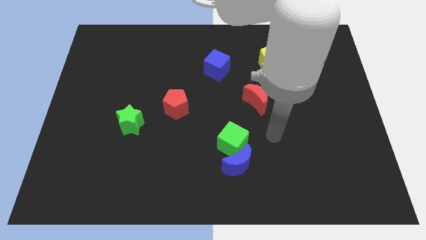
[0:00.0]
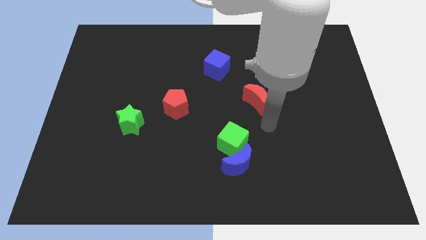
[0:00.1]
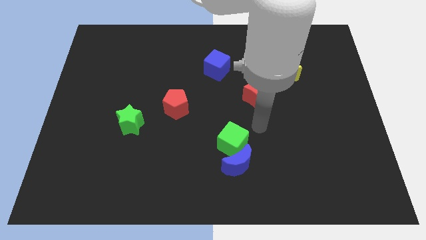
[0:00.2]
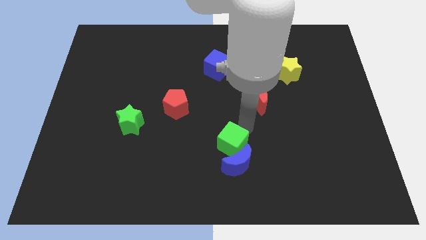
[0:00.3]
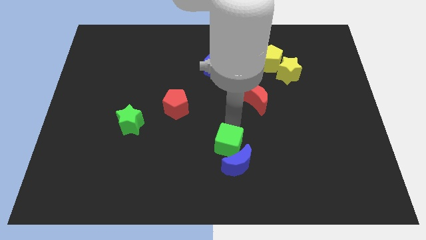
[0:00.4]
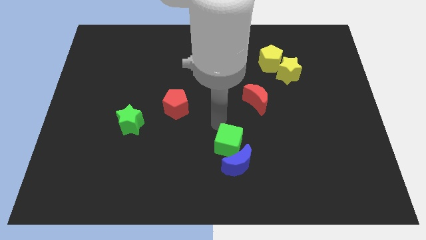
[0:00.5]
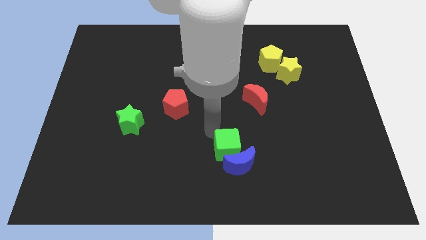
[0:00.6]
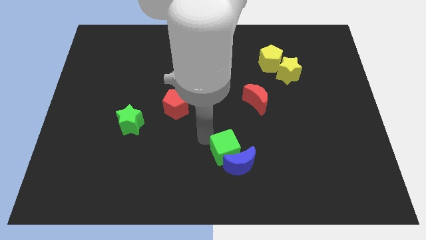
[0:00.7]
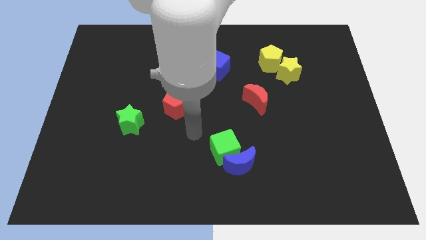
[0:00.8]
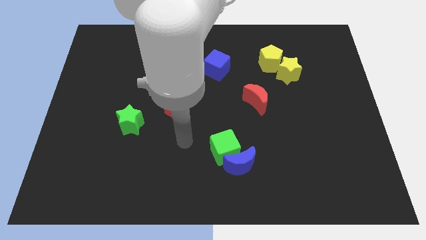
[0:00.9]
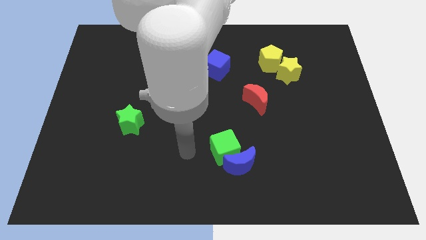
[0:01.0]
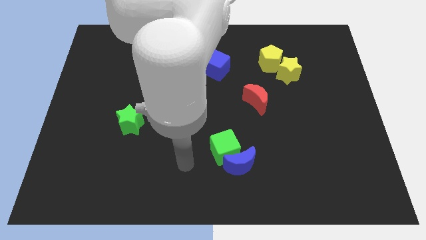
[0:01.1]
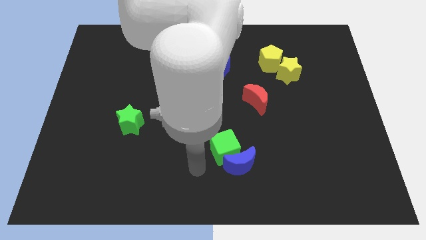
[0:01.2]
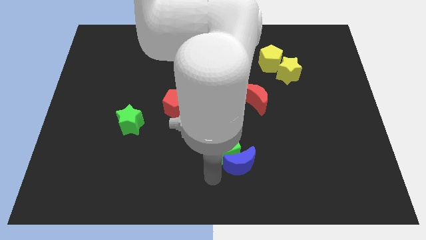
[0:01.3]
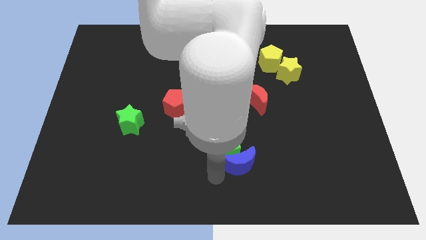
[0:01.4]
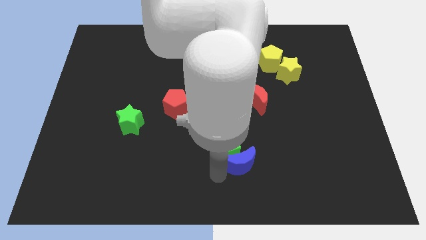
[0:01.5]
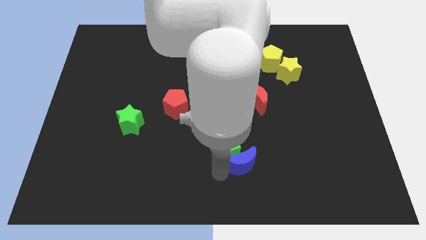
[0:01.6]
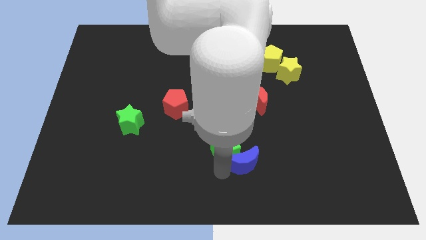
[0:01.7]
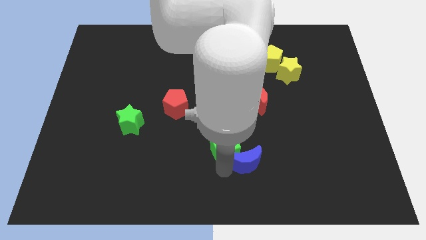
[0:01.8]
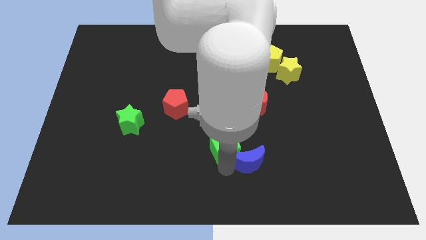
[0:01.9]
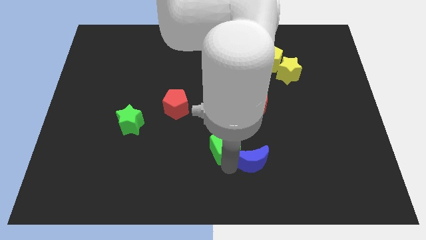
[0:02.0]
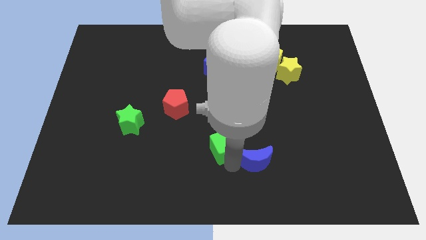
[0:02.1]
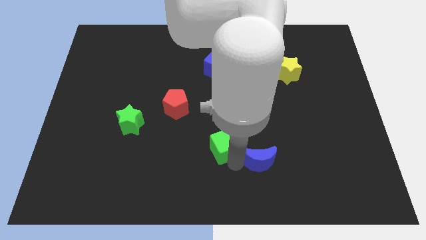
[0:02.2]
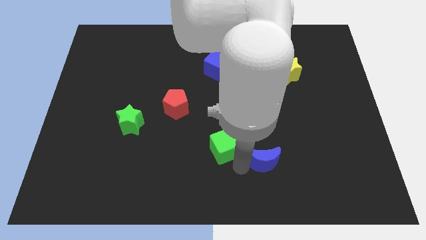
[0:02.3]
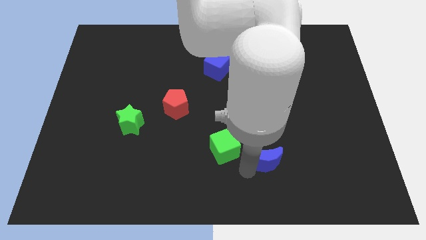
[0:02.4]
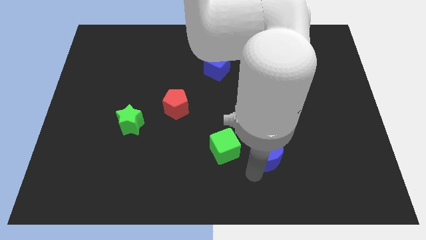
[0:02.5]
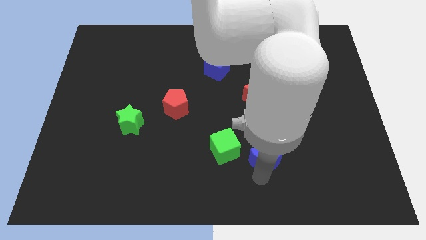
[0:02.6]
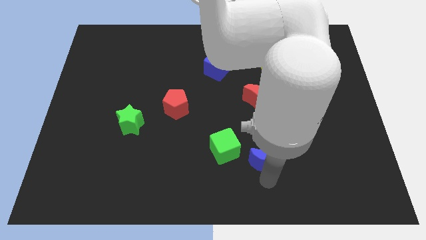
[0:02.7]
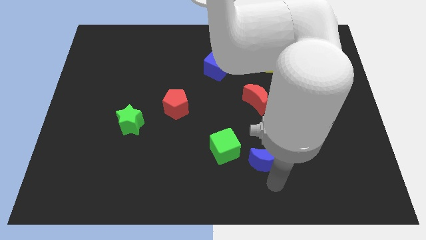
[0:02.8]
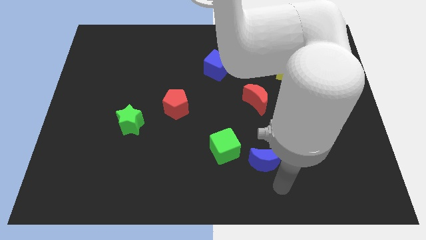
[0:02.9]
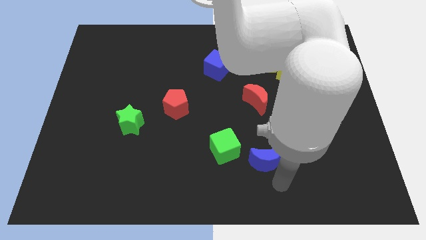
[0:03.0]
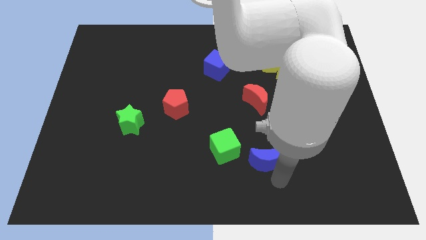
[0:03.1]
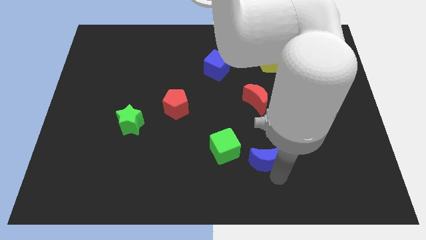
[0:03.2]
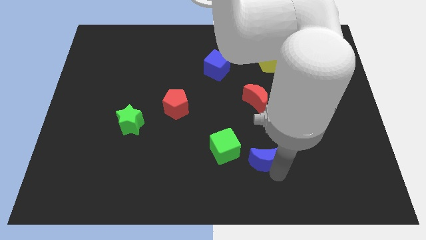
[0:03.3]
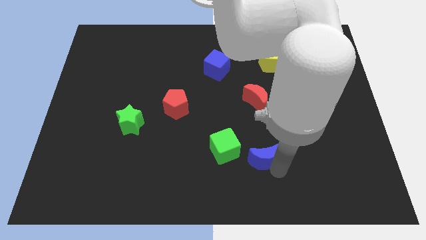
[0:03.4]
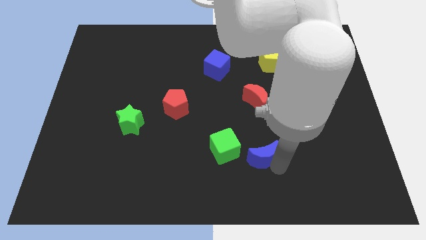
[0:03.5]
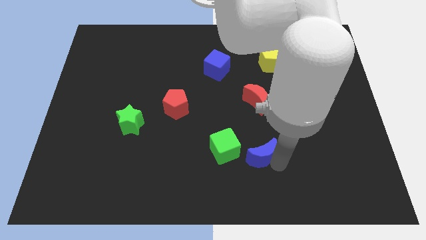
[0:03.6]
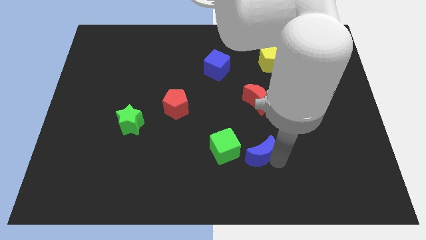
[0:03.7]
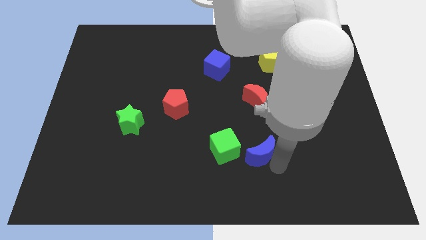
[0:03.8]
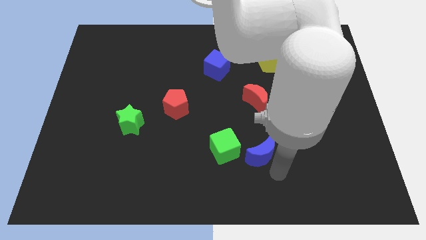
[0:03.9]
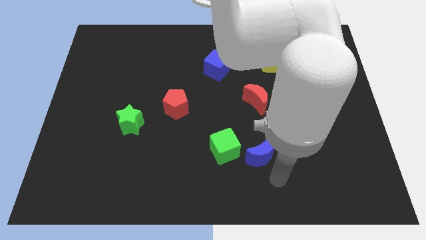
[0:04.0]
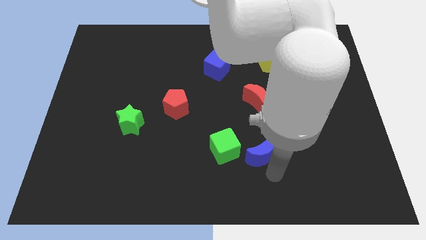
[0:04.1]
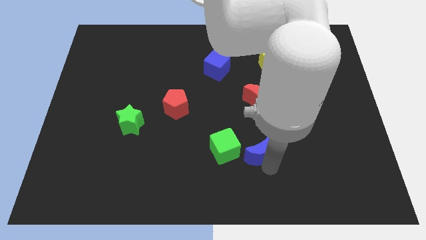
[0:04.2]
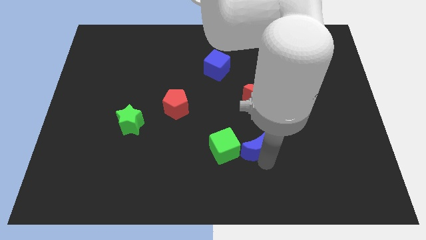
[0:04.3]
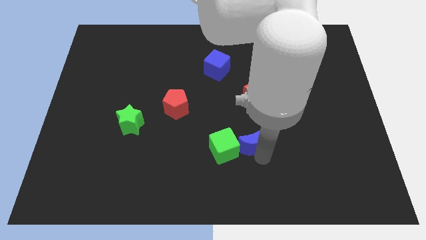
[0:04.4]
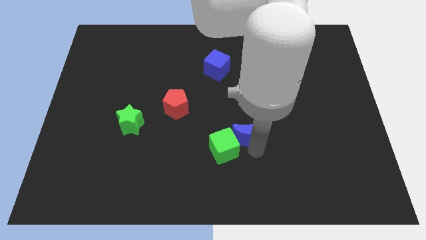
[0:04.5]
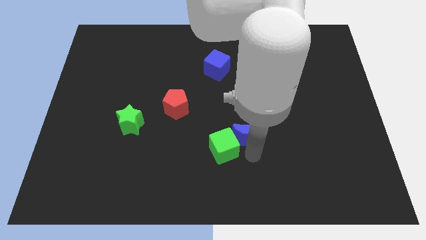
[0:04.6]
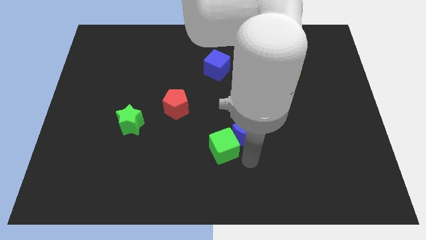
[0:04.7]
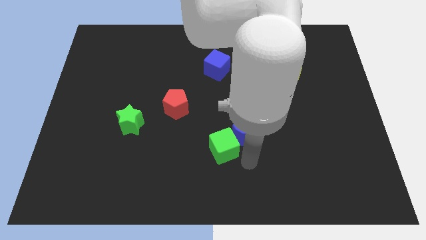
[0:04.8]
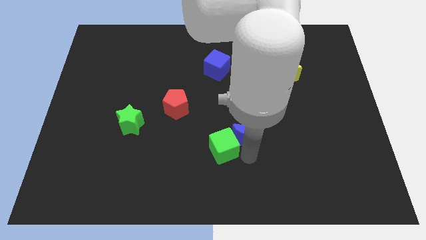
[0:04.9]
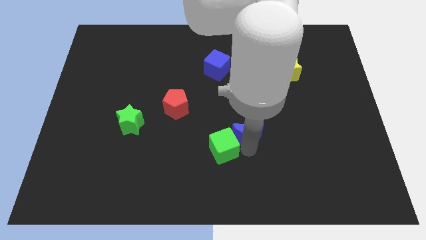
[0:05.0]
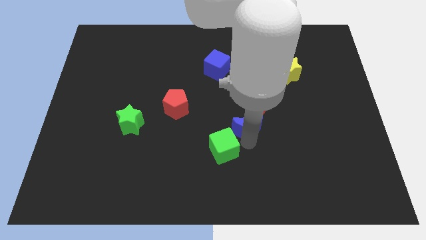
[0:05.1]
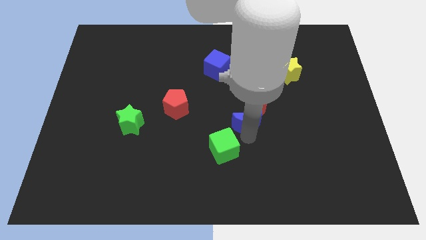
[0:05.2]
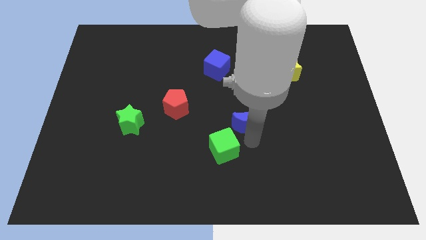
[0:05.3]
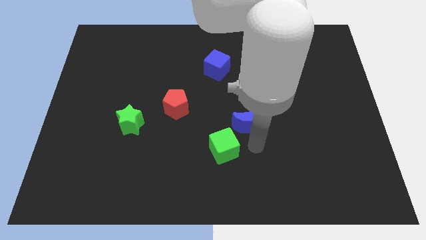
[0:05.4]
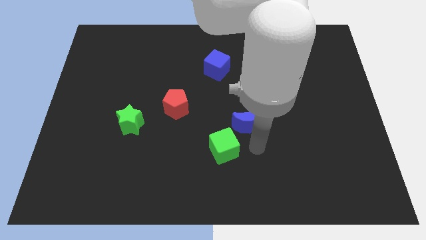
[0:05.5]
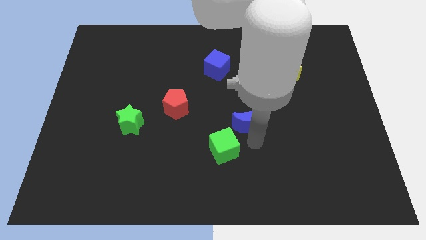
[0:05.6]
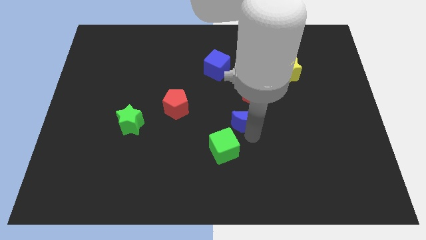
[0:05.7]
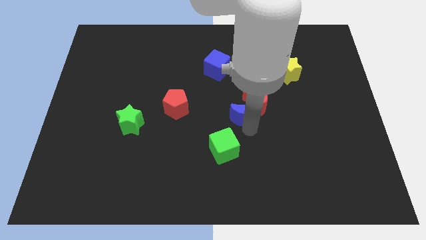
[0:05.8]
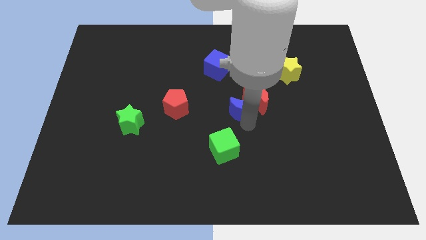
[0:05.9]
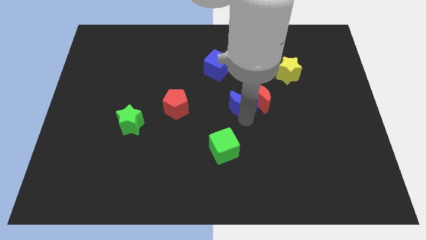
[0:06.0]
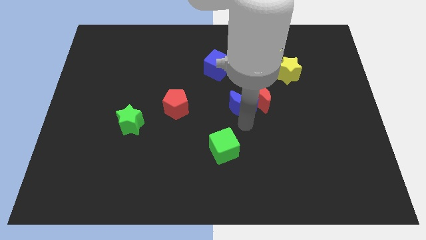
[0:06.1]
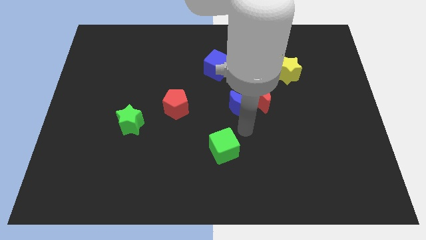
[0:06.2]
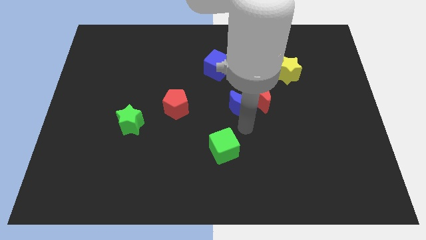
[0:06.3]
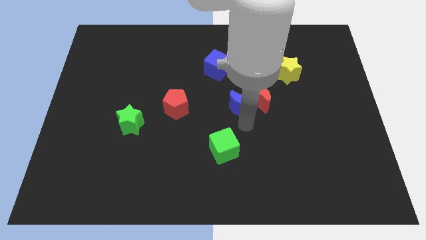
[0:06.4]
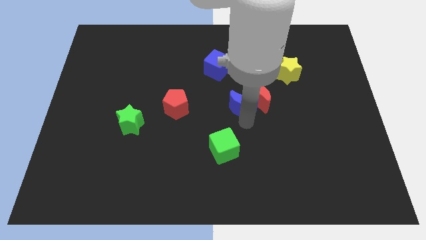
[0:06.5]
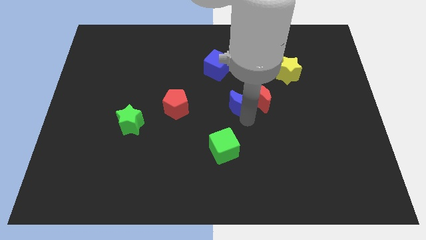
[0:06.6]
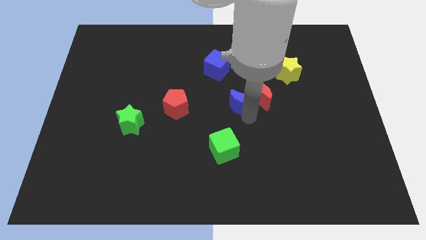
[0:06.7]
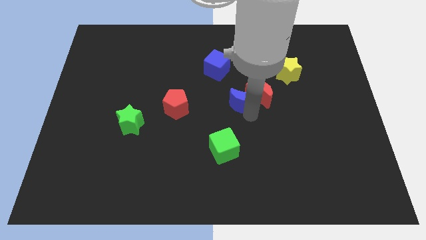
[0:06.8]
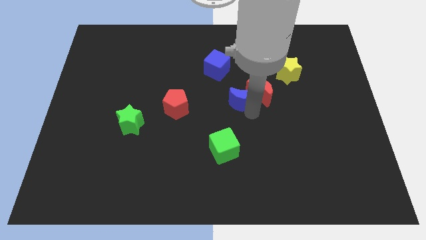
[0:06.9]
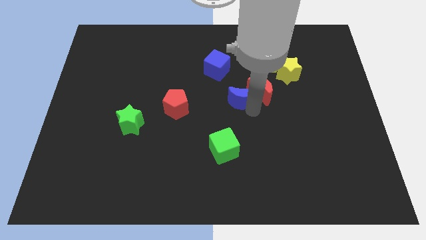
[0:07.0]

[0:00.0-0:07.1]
slide the blue moon to the bottom right of the blue cube
